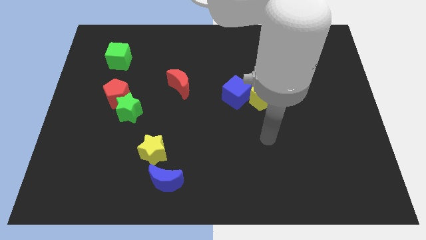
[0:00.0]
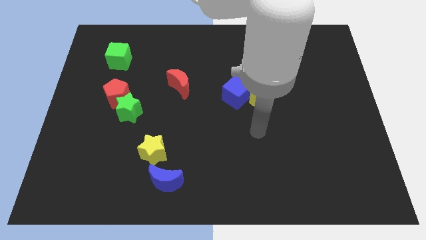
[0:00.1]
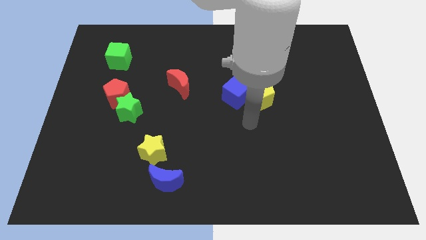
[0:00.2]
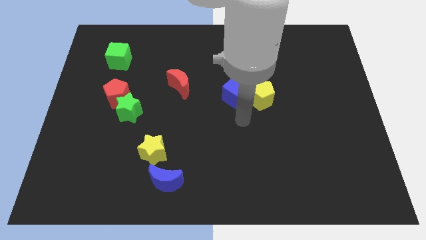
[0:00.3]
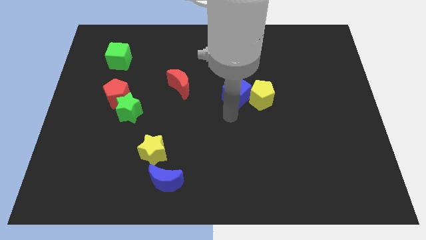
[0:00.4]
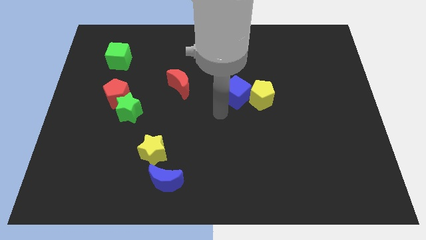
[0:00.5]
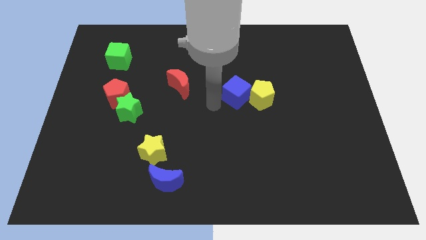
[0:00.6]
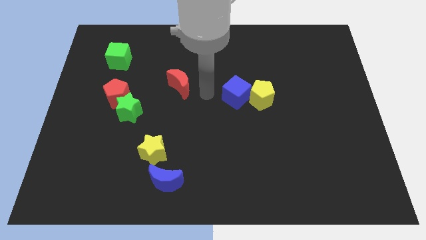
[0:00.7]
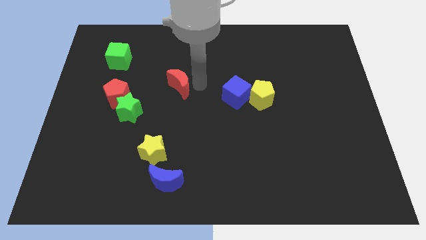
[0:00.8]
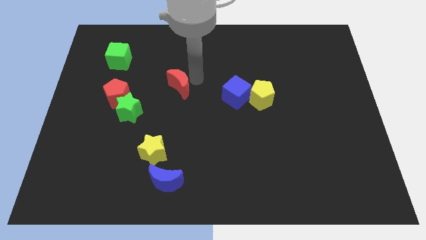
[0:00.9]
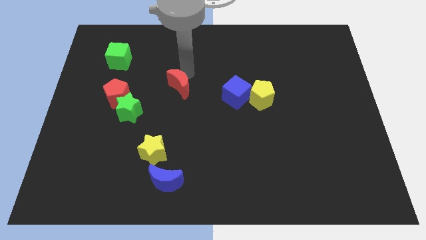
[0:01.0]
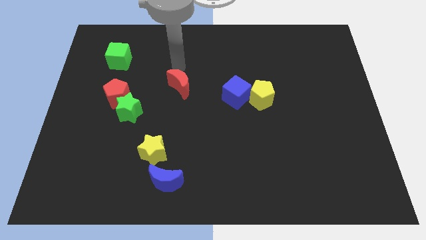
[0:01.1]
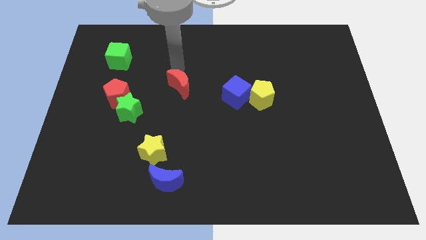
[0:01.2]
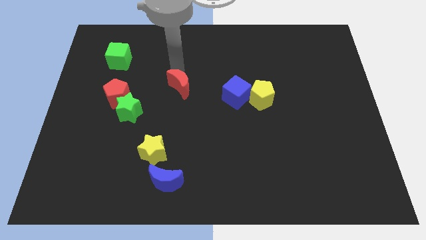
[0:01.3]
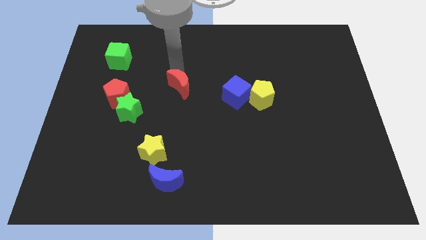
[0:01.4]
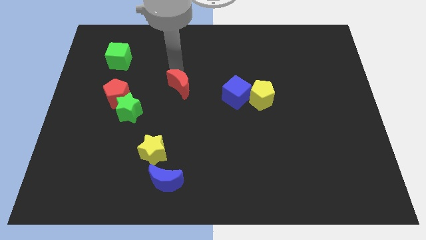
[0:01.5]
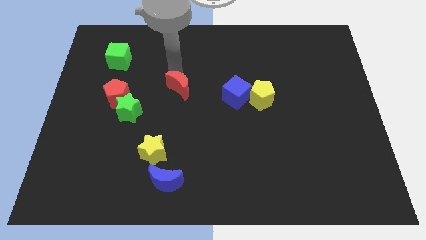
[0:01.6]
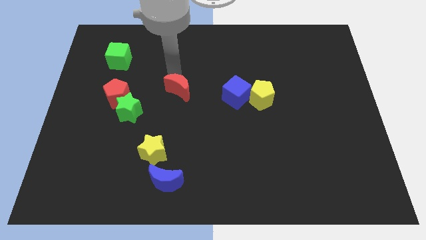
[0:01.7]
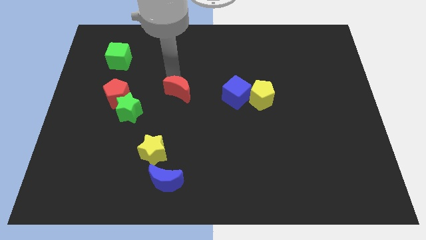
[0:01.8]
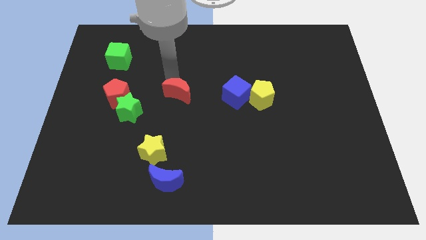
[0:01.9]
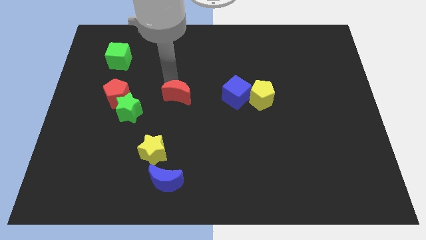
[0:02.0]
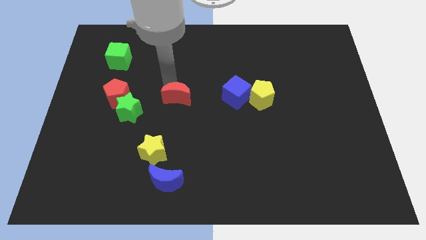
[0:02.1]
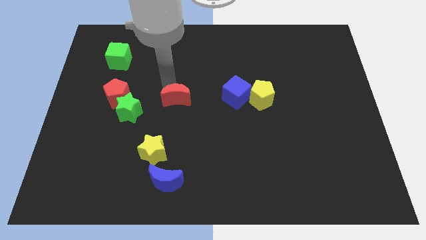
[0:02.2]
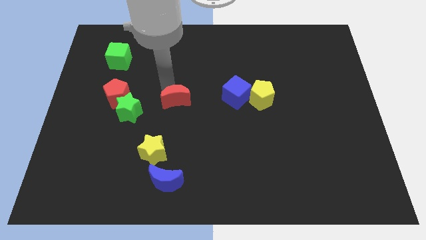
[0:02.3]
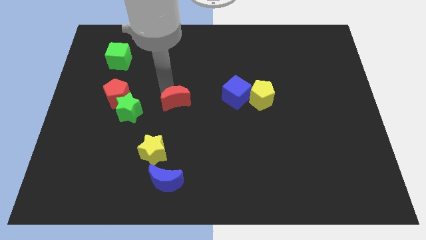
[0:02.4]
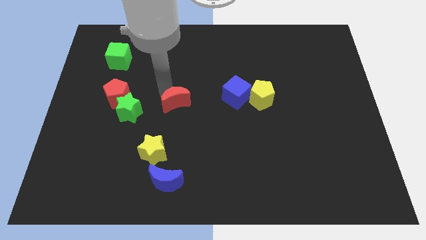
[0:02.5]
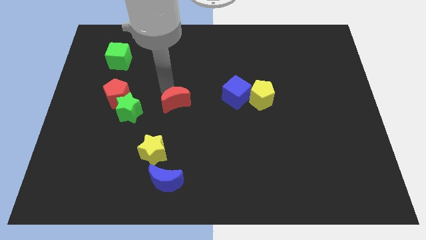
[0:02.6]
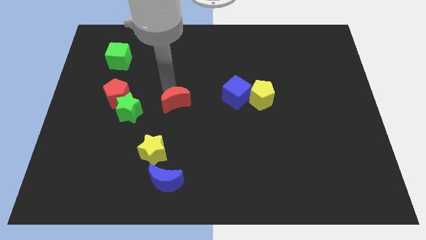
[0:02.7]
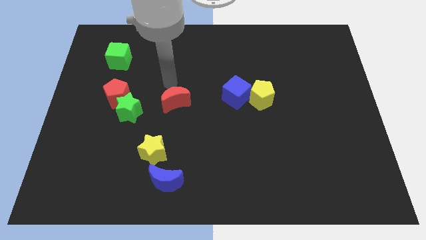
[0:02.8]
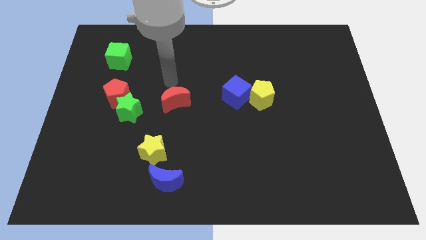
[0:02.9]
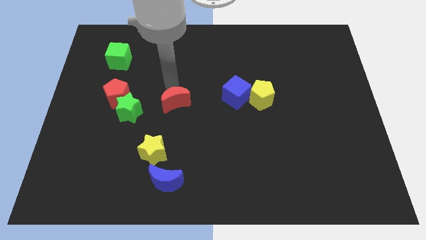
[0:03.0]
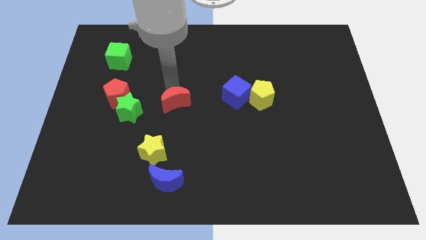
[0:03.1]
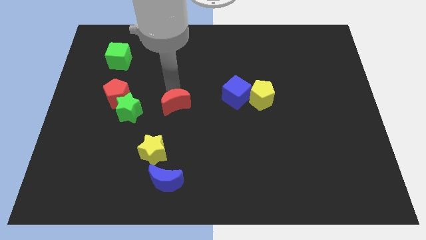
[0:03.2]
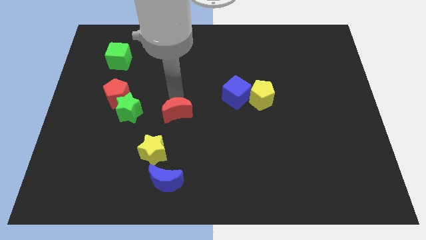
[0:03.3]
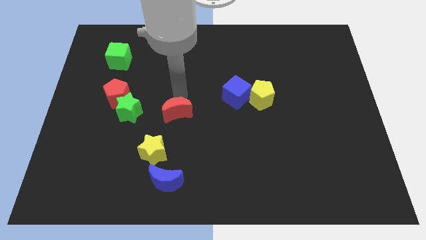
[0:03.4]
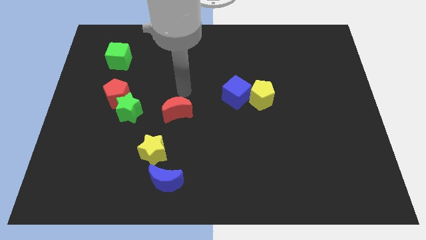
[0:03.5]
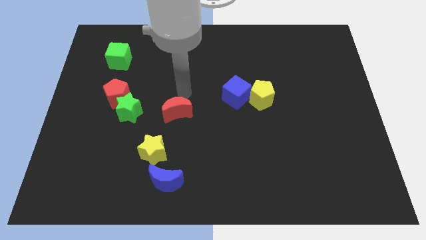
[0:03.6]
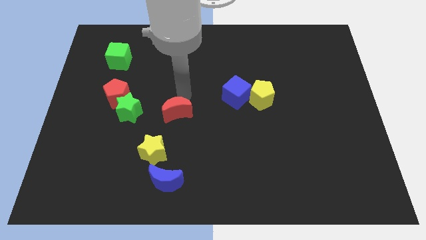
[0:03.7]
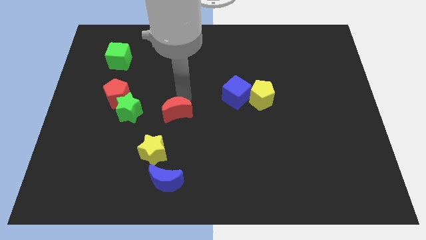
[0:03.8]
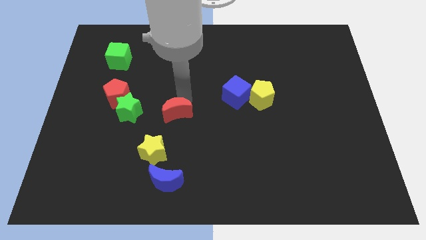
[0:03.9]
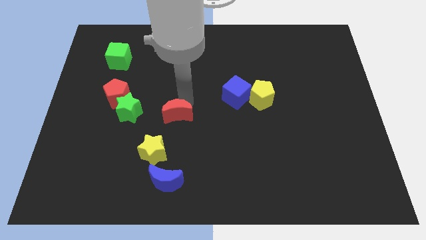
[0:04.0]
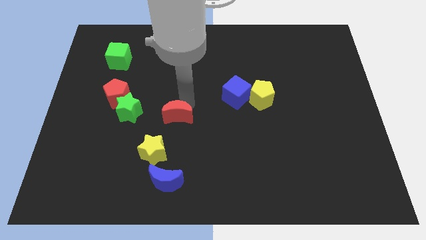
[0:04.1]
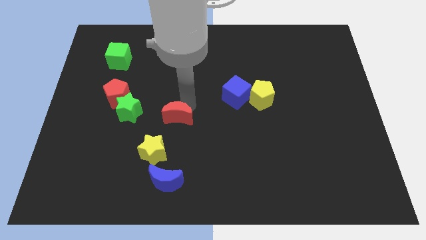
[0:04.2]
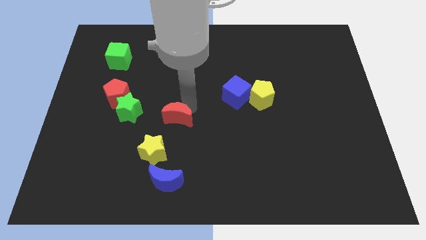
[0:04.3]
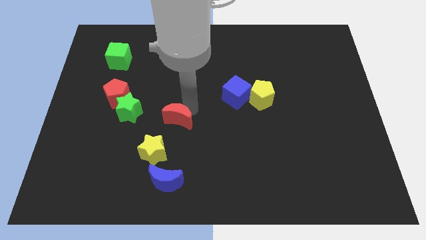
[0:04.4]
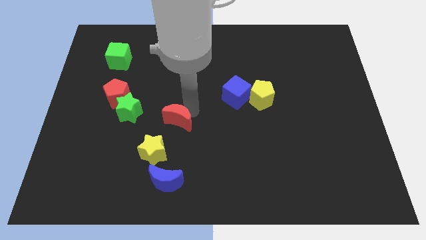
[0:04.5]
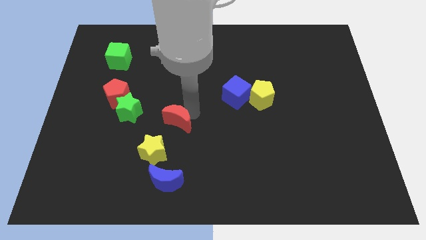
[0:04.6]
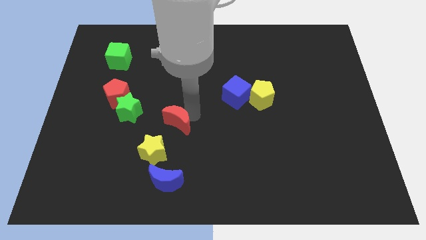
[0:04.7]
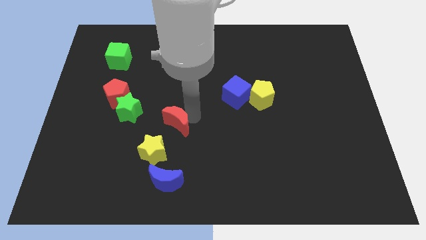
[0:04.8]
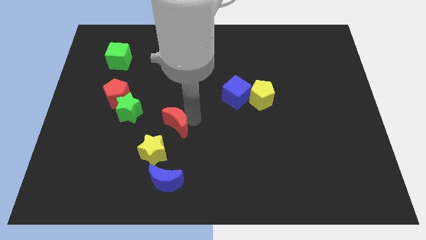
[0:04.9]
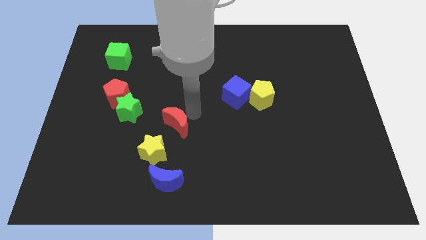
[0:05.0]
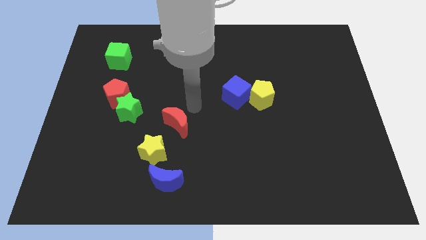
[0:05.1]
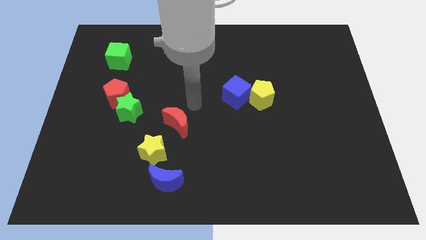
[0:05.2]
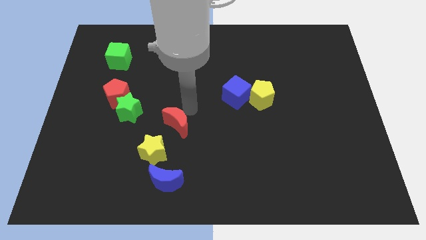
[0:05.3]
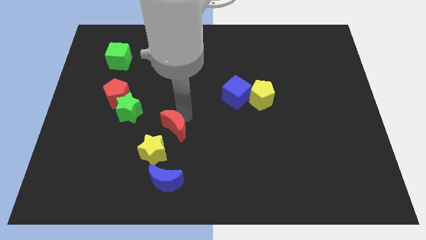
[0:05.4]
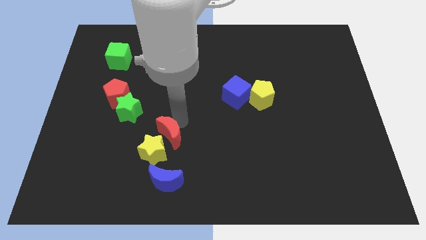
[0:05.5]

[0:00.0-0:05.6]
put the red moon towards the yellow star

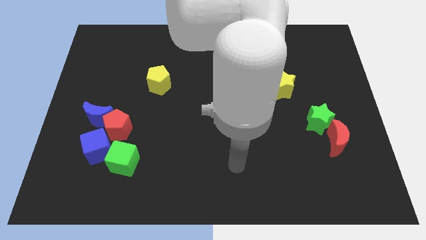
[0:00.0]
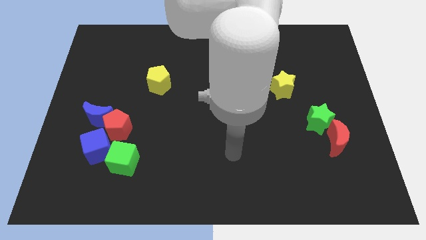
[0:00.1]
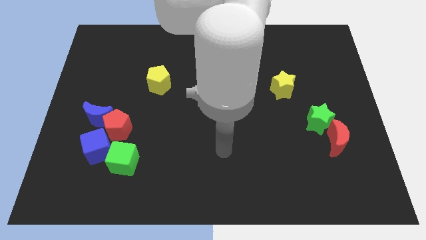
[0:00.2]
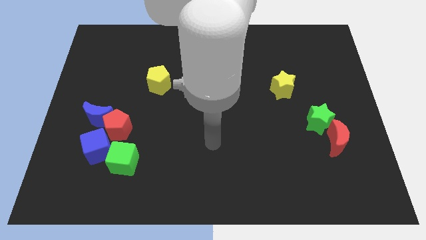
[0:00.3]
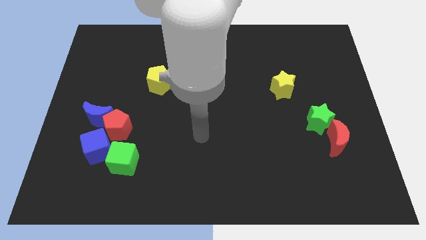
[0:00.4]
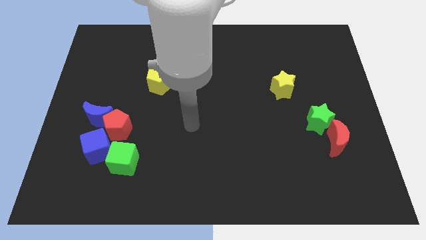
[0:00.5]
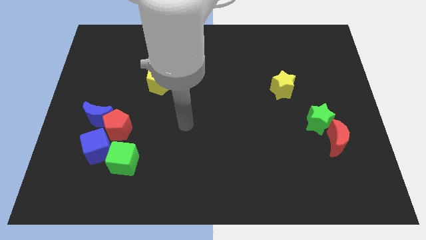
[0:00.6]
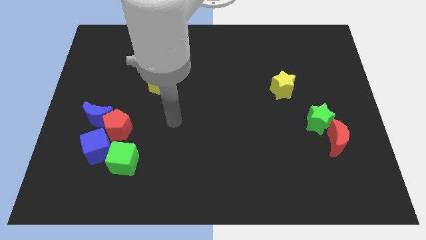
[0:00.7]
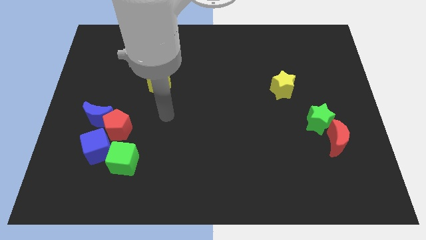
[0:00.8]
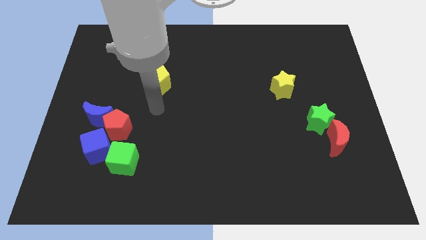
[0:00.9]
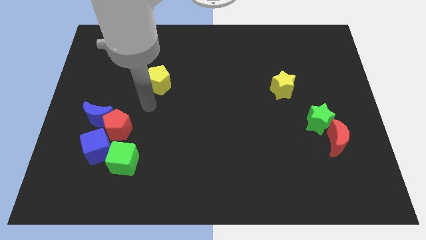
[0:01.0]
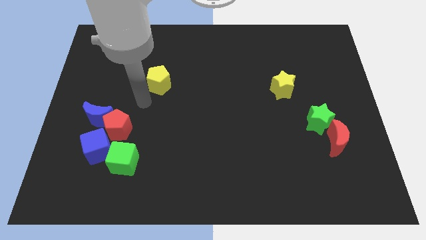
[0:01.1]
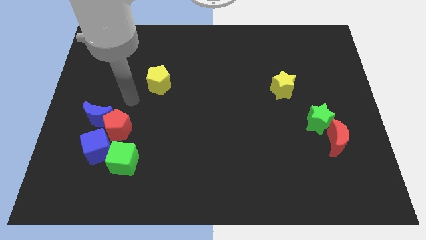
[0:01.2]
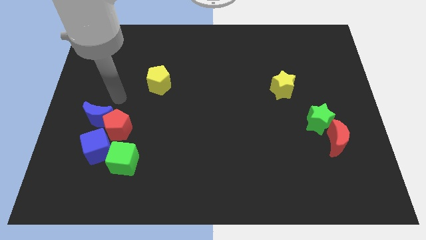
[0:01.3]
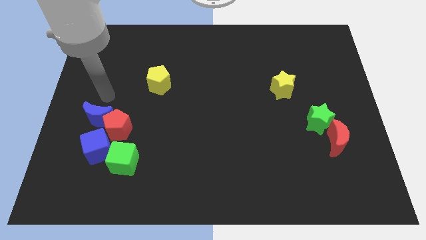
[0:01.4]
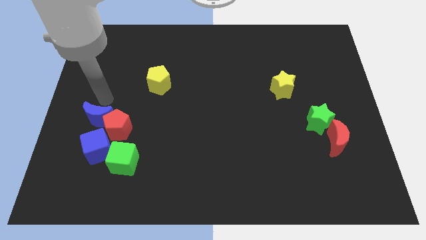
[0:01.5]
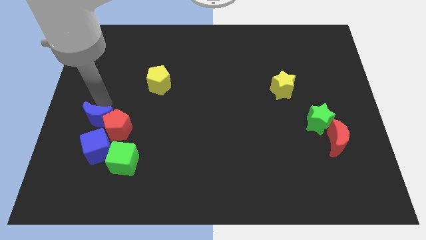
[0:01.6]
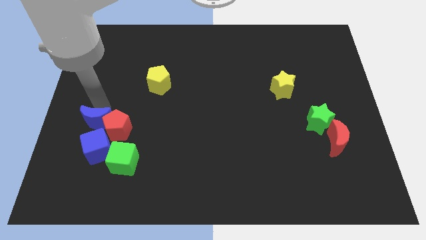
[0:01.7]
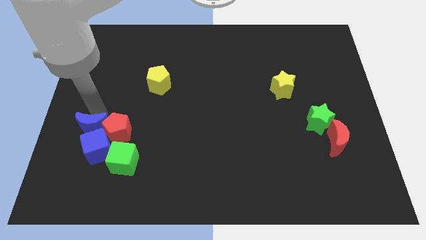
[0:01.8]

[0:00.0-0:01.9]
put the blue moon next to the blue cube
